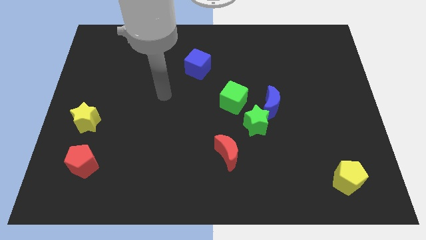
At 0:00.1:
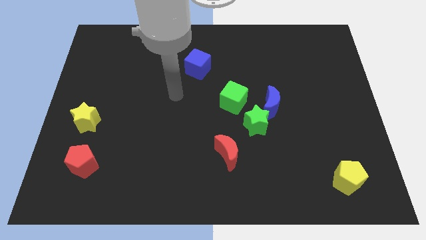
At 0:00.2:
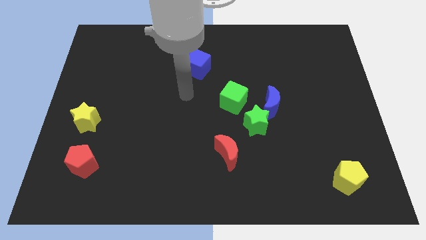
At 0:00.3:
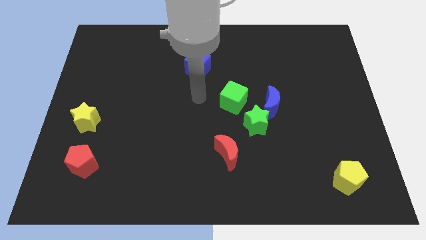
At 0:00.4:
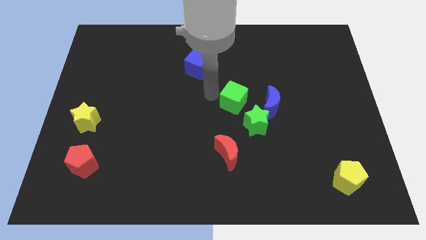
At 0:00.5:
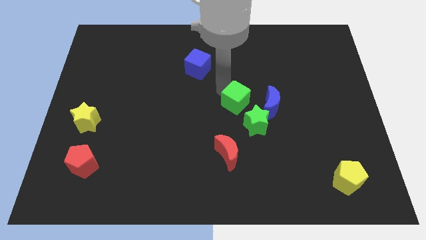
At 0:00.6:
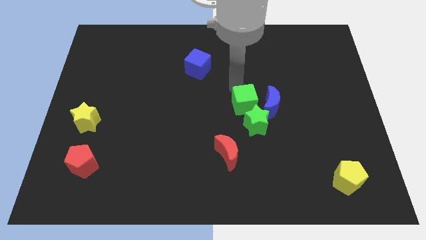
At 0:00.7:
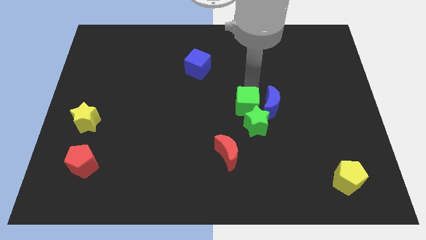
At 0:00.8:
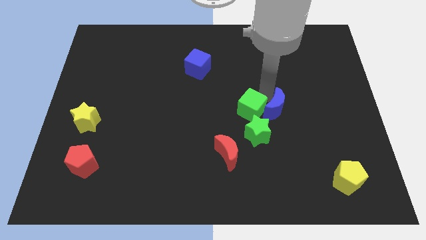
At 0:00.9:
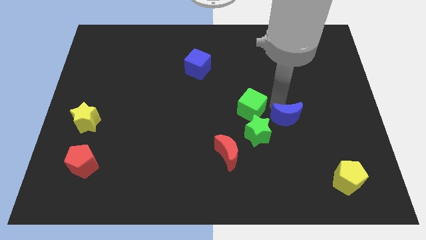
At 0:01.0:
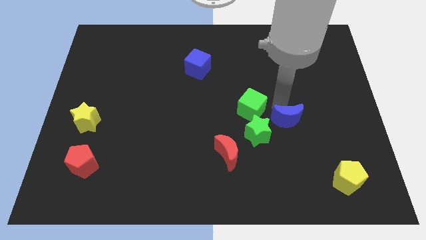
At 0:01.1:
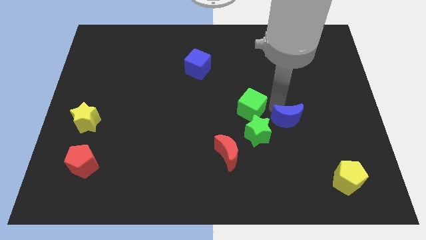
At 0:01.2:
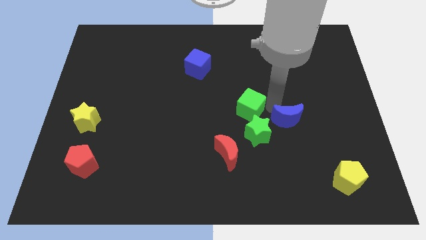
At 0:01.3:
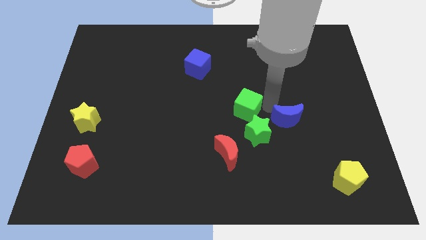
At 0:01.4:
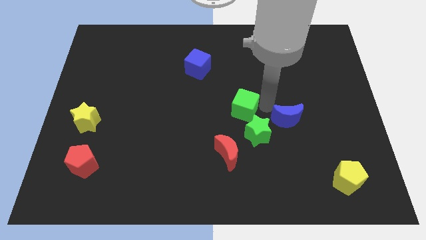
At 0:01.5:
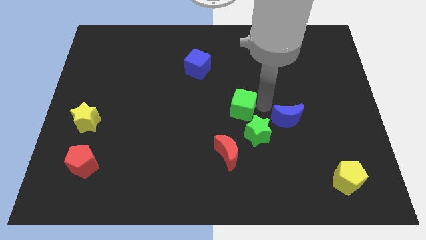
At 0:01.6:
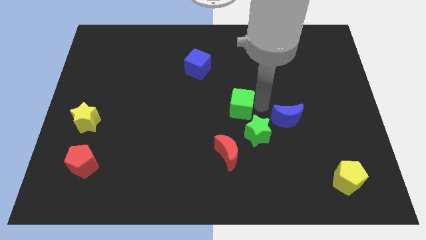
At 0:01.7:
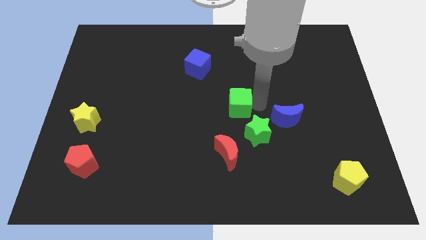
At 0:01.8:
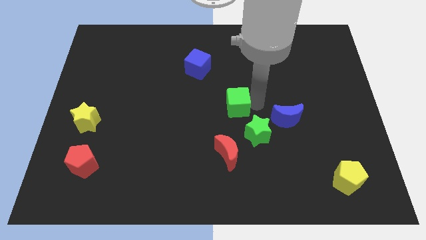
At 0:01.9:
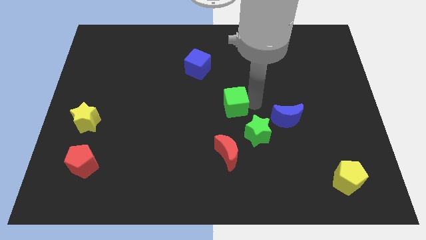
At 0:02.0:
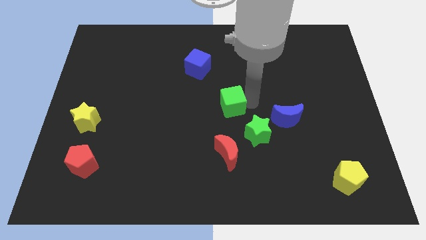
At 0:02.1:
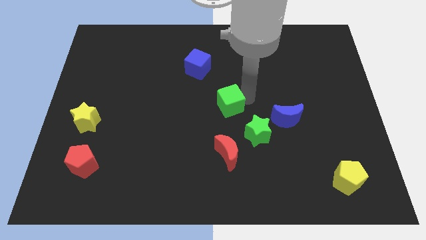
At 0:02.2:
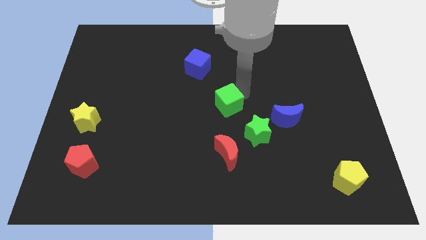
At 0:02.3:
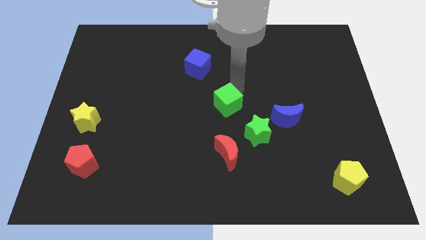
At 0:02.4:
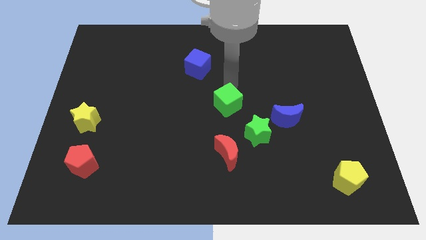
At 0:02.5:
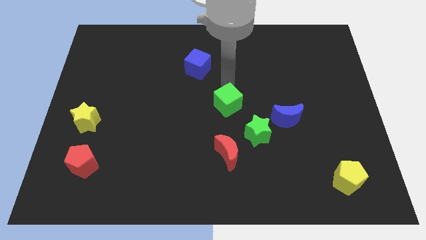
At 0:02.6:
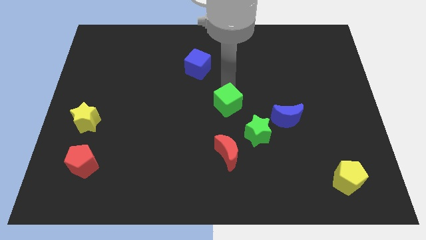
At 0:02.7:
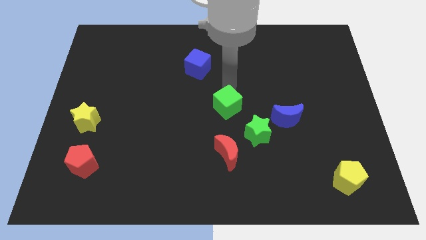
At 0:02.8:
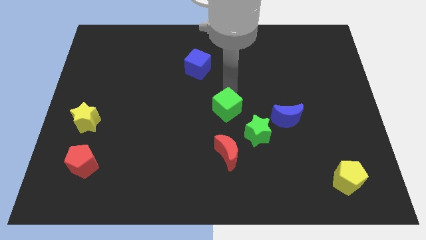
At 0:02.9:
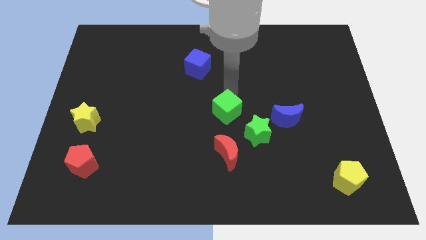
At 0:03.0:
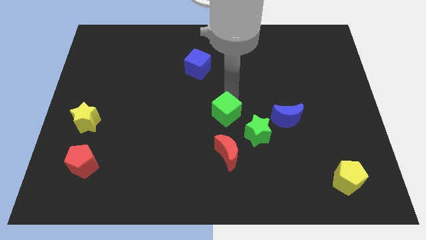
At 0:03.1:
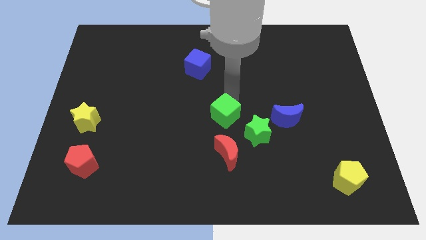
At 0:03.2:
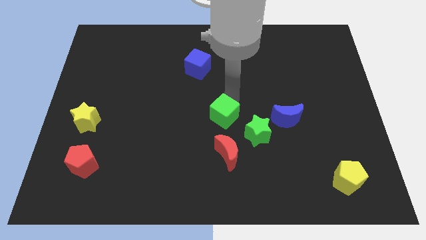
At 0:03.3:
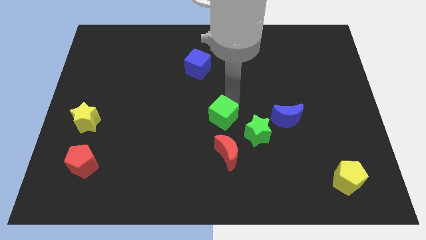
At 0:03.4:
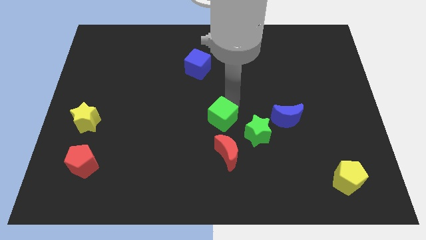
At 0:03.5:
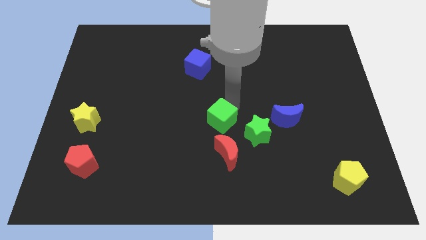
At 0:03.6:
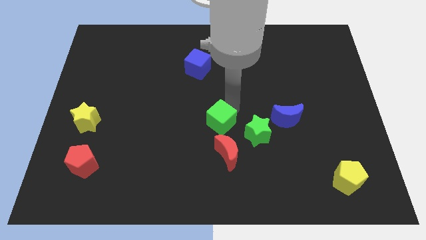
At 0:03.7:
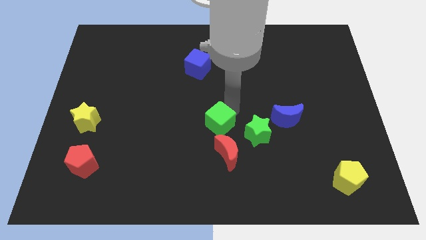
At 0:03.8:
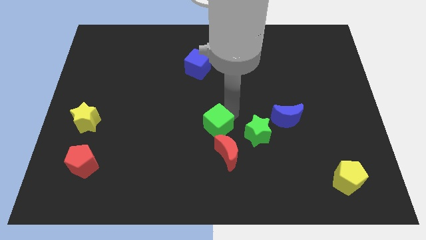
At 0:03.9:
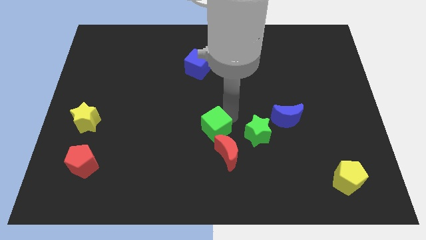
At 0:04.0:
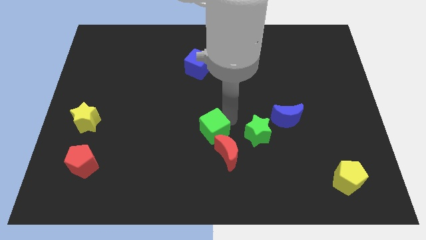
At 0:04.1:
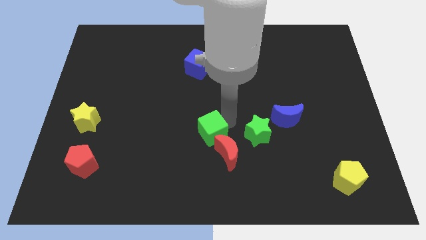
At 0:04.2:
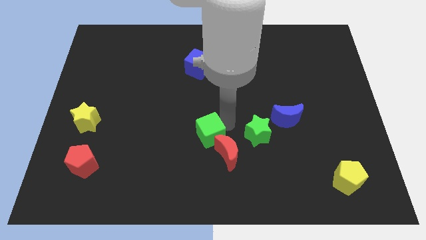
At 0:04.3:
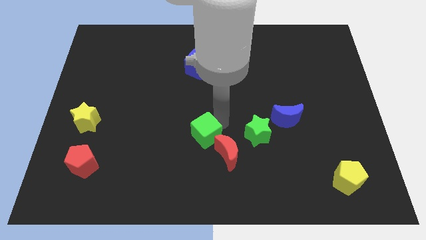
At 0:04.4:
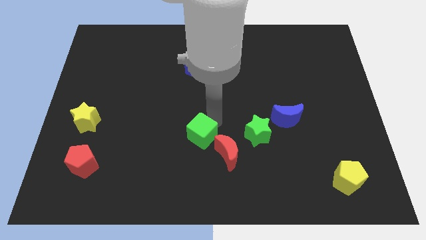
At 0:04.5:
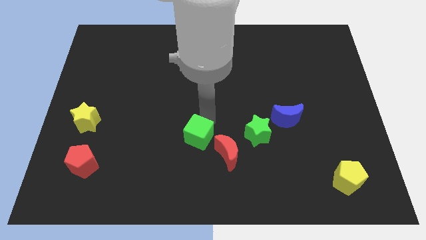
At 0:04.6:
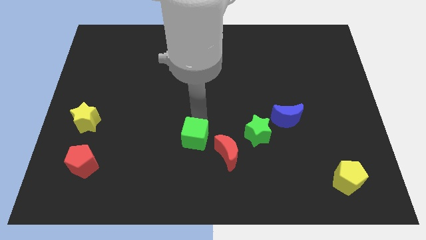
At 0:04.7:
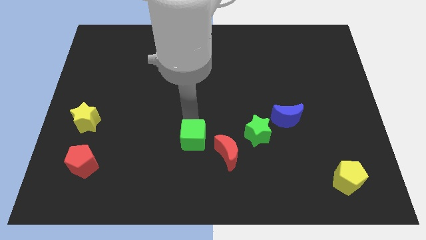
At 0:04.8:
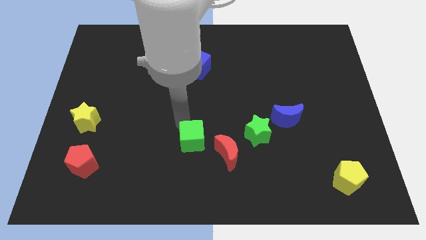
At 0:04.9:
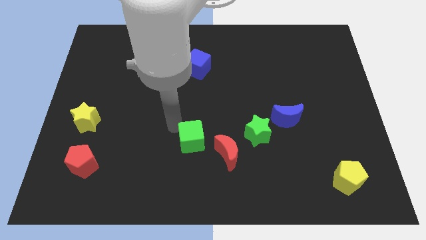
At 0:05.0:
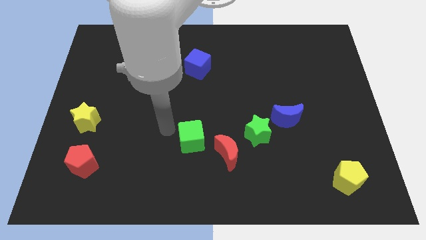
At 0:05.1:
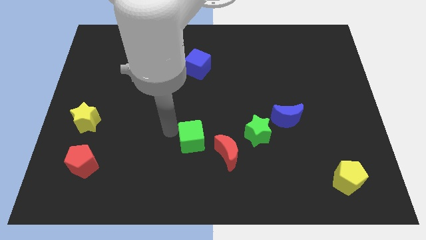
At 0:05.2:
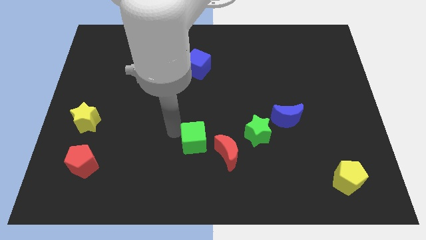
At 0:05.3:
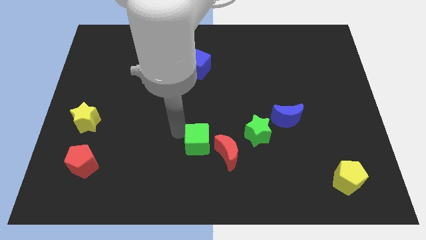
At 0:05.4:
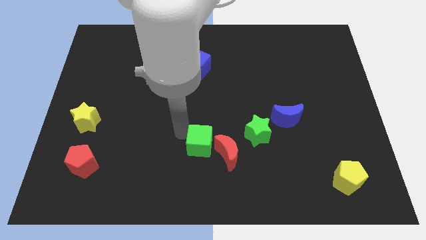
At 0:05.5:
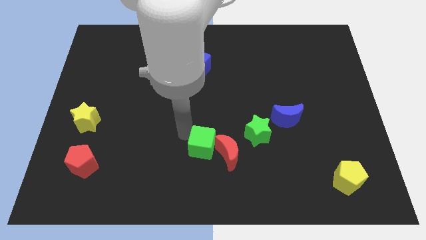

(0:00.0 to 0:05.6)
move the green cube close to the red moon

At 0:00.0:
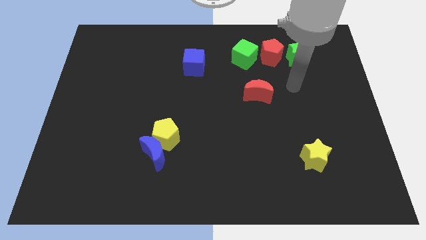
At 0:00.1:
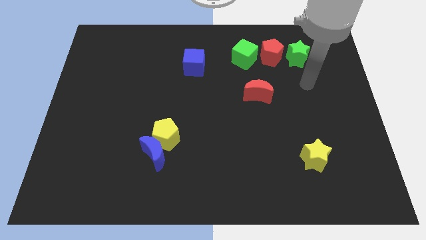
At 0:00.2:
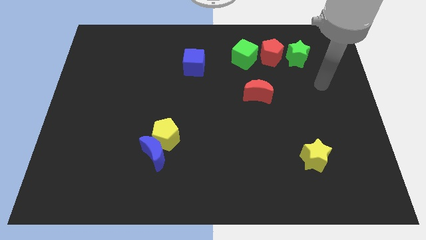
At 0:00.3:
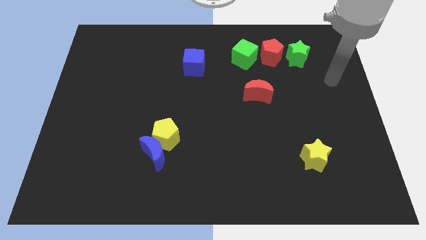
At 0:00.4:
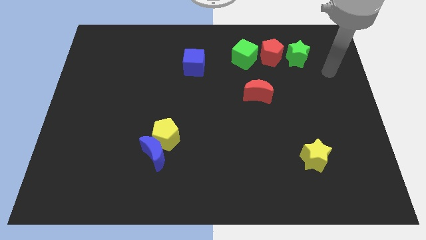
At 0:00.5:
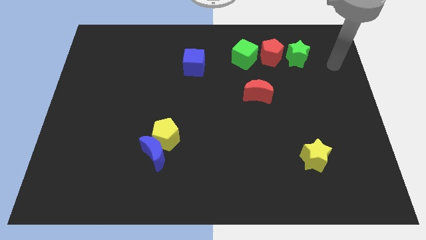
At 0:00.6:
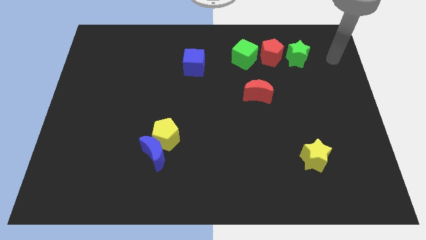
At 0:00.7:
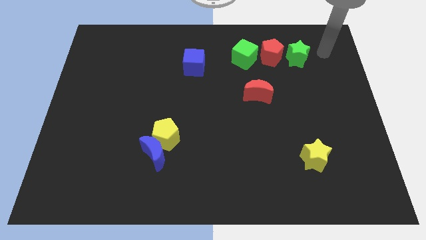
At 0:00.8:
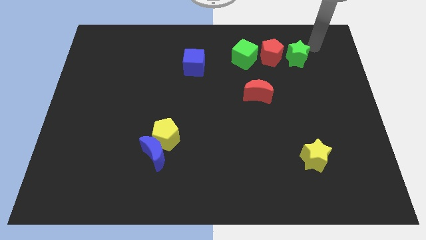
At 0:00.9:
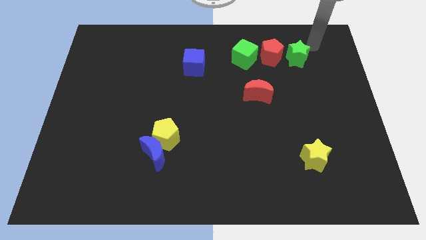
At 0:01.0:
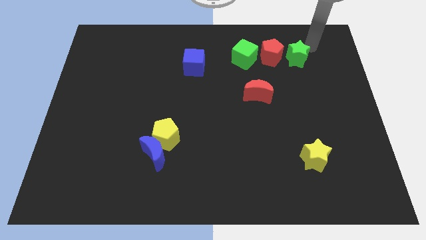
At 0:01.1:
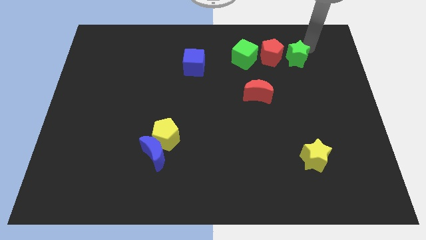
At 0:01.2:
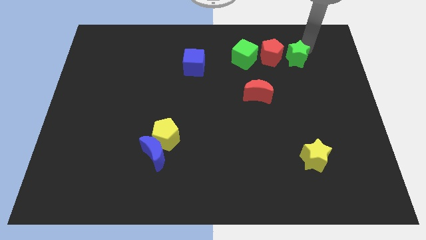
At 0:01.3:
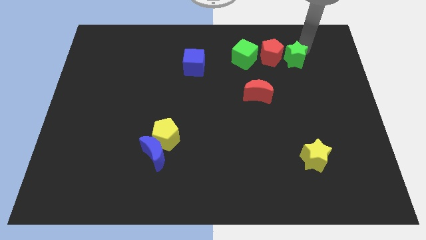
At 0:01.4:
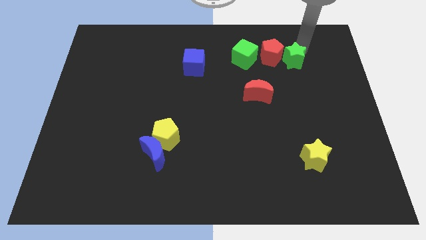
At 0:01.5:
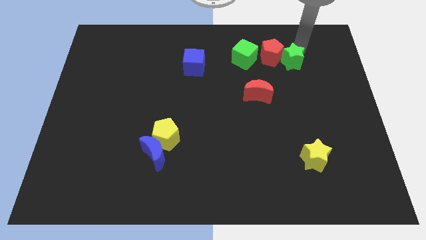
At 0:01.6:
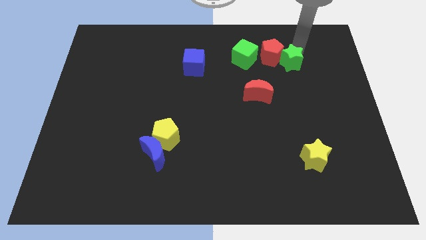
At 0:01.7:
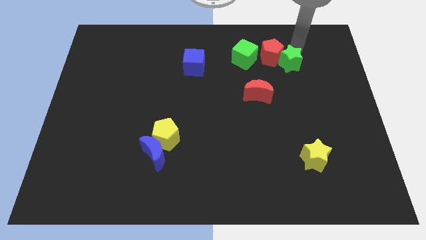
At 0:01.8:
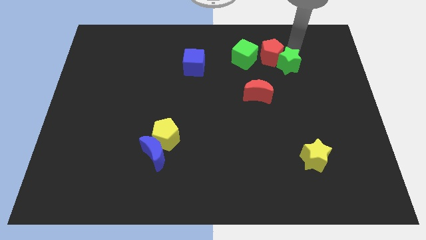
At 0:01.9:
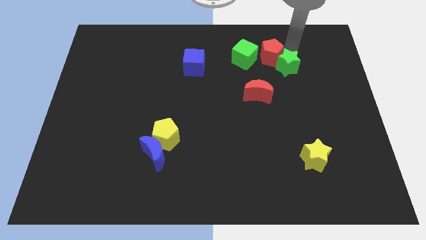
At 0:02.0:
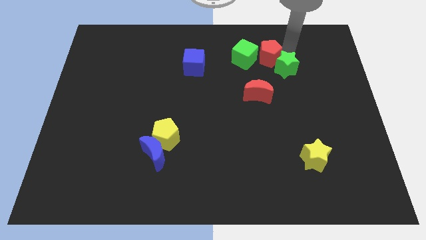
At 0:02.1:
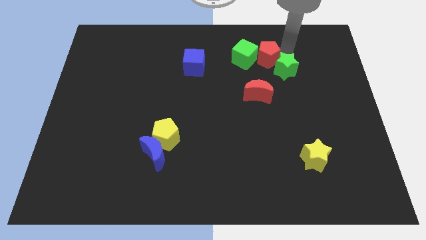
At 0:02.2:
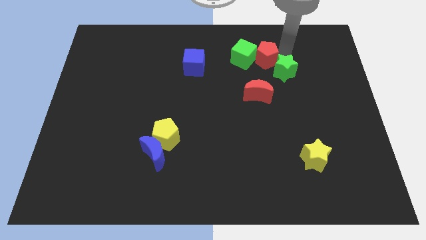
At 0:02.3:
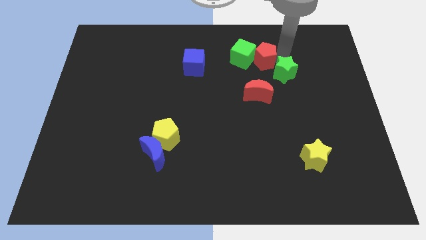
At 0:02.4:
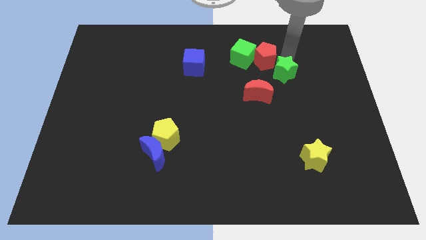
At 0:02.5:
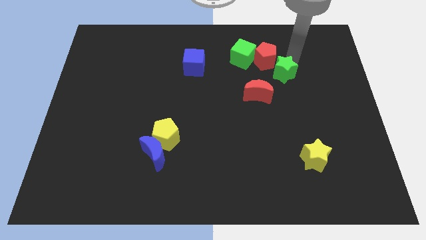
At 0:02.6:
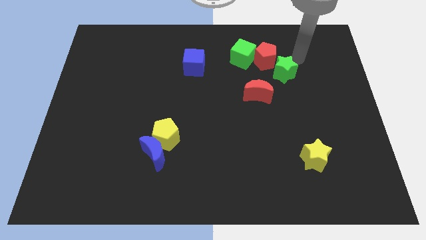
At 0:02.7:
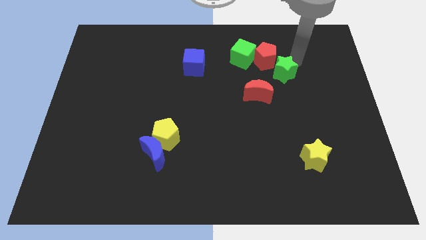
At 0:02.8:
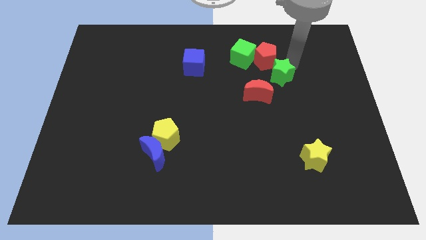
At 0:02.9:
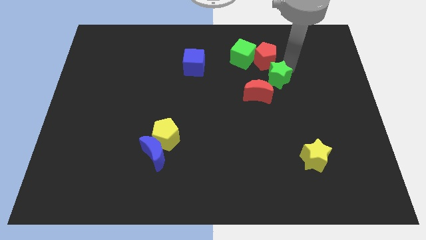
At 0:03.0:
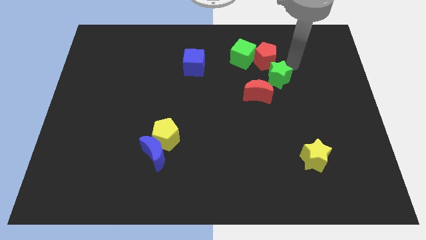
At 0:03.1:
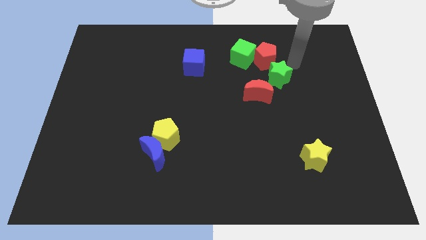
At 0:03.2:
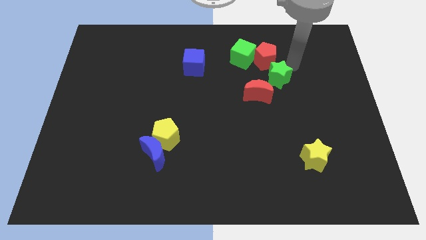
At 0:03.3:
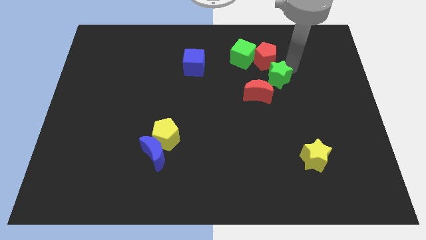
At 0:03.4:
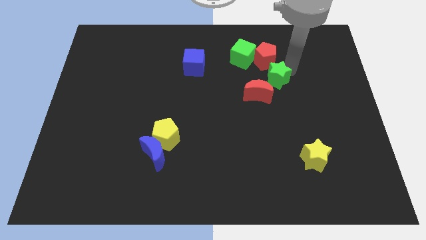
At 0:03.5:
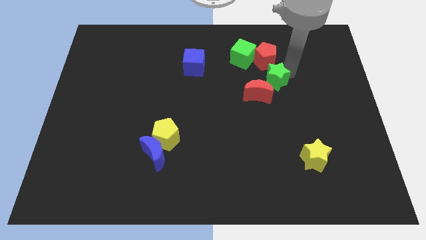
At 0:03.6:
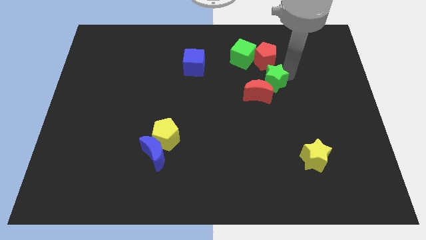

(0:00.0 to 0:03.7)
put the green star close to the red moon
